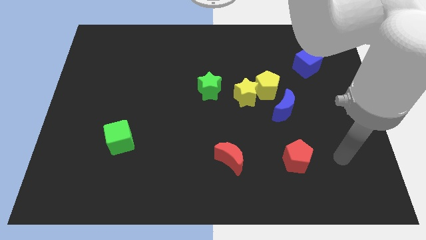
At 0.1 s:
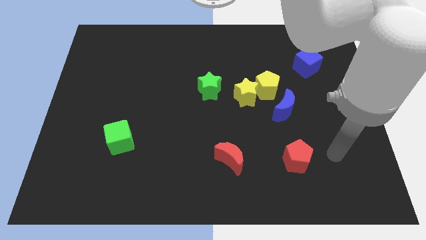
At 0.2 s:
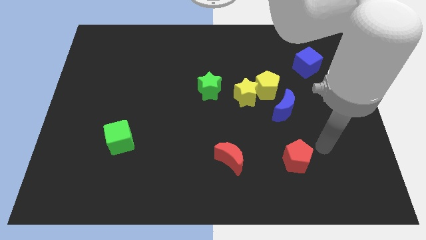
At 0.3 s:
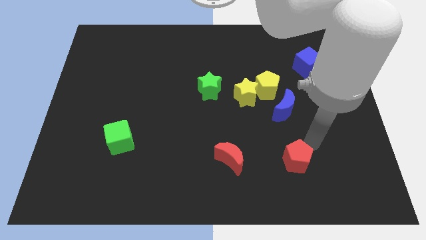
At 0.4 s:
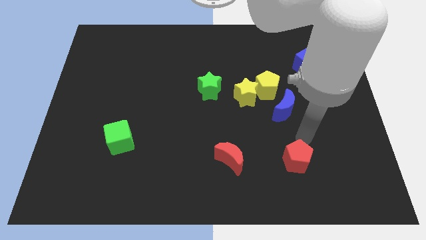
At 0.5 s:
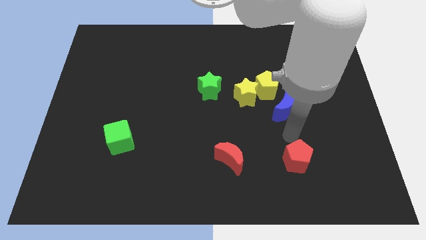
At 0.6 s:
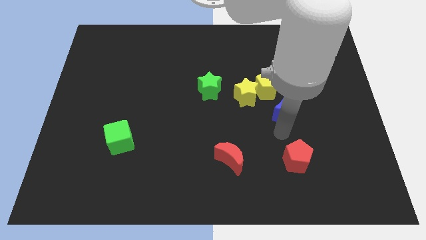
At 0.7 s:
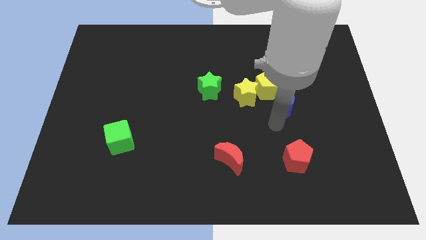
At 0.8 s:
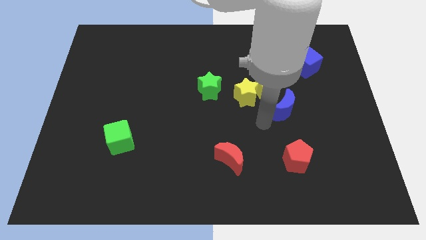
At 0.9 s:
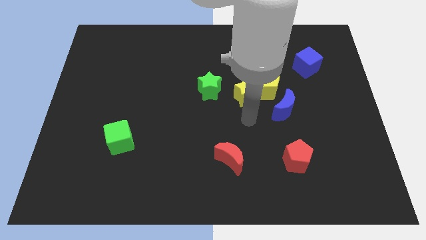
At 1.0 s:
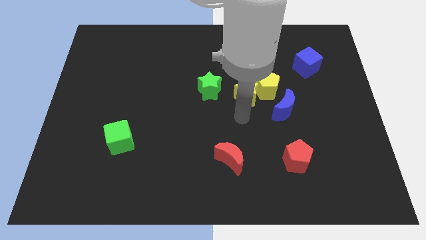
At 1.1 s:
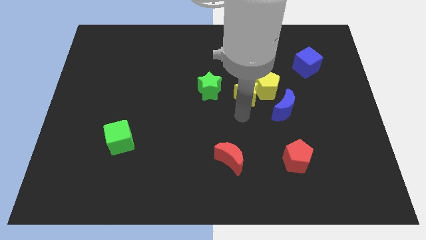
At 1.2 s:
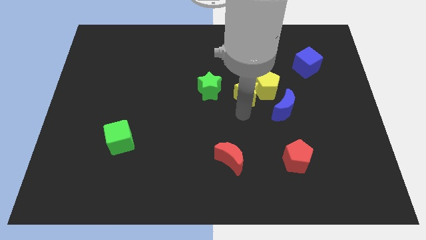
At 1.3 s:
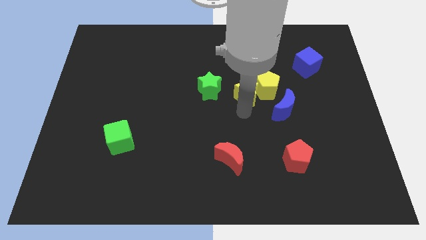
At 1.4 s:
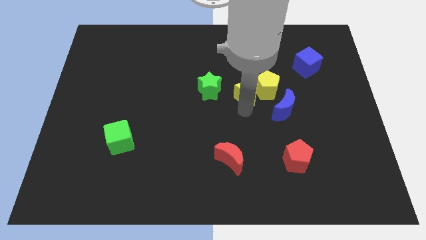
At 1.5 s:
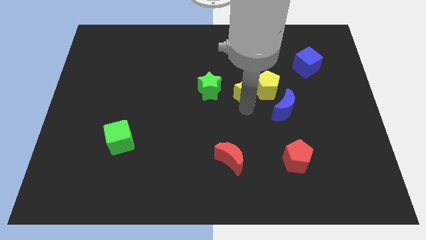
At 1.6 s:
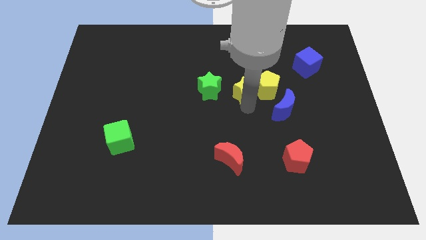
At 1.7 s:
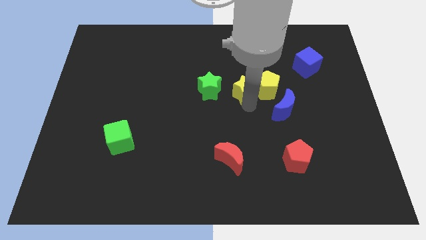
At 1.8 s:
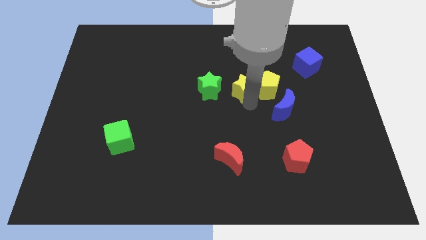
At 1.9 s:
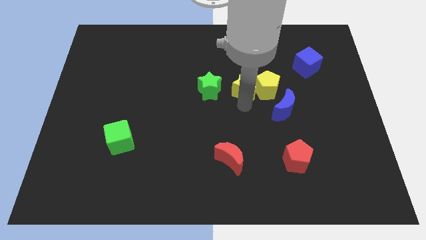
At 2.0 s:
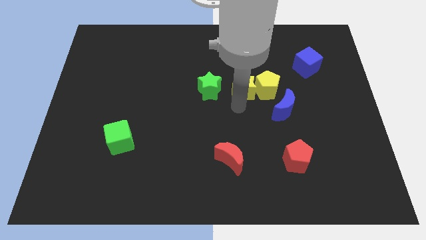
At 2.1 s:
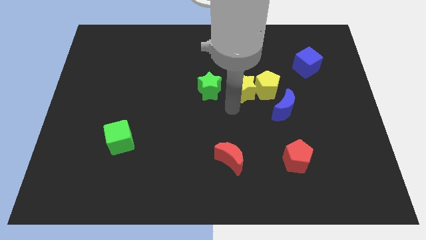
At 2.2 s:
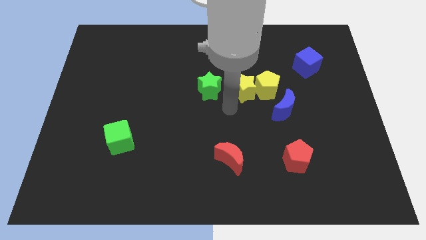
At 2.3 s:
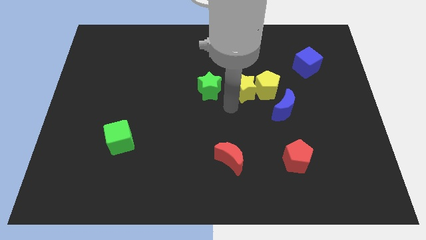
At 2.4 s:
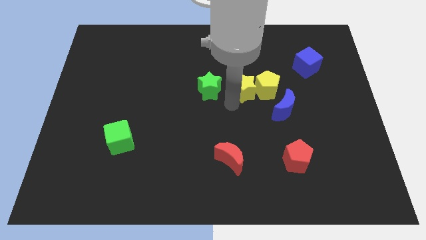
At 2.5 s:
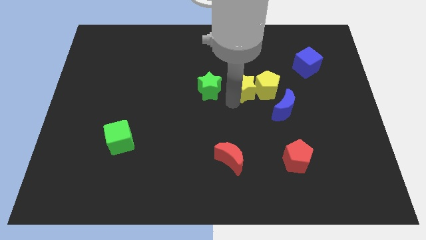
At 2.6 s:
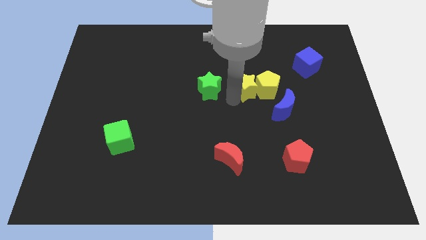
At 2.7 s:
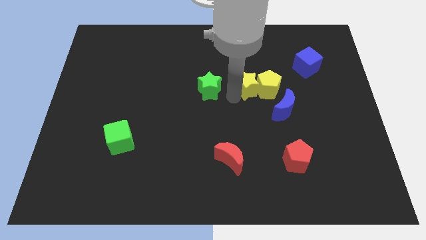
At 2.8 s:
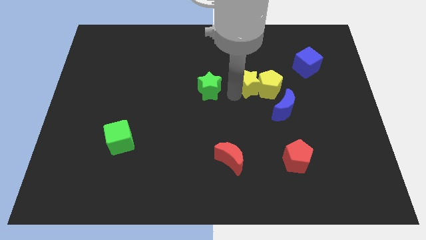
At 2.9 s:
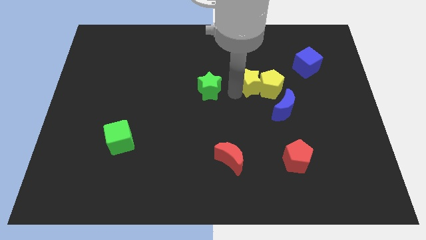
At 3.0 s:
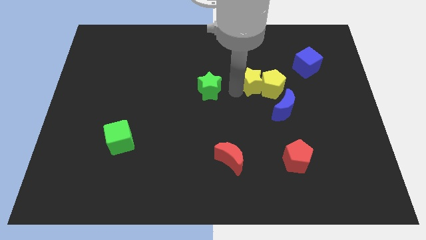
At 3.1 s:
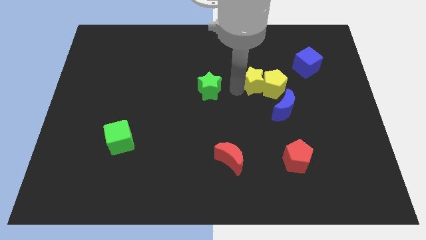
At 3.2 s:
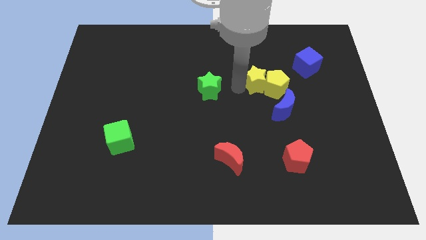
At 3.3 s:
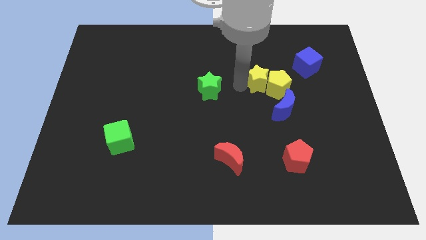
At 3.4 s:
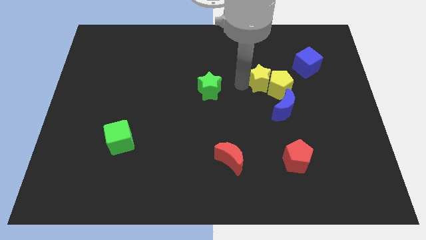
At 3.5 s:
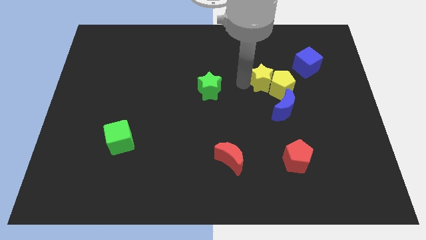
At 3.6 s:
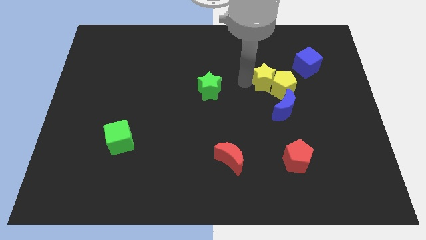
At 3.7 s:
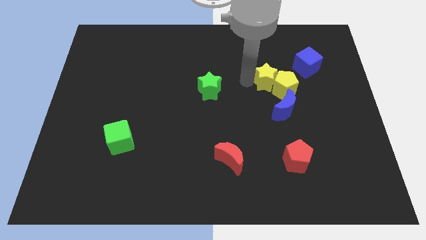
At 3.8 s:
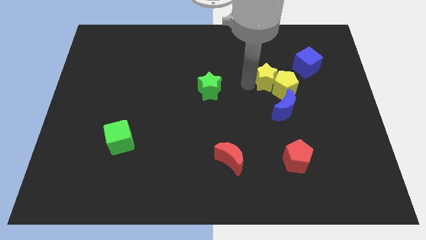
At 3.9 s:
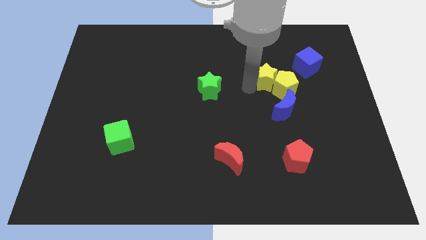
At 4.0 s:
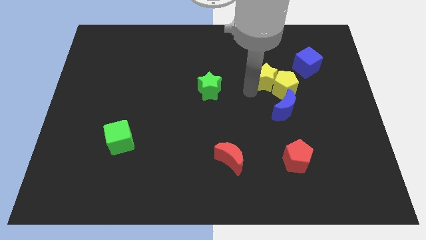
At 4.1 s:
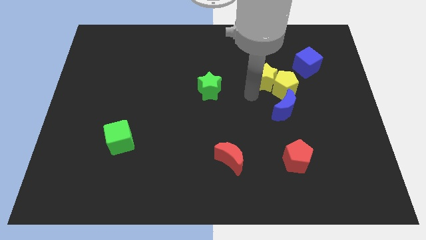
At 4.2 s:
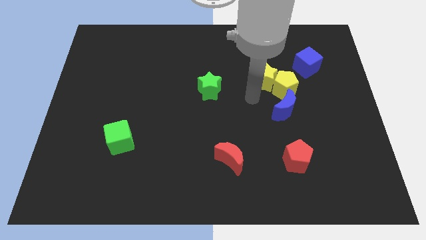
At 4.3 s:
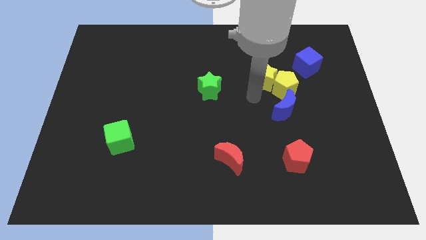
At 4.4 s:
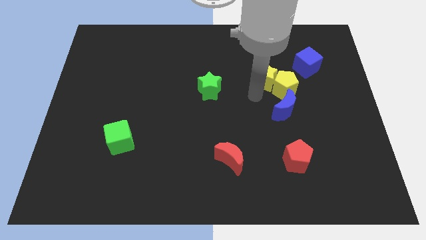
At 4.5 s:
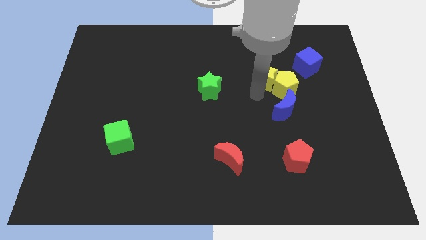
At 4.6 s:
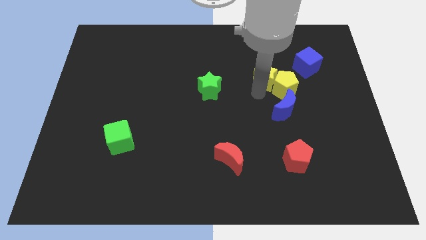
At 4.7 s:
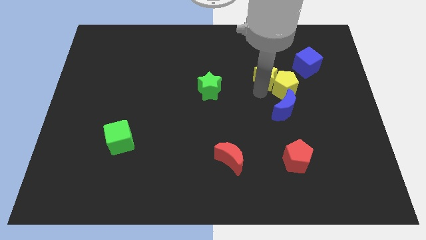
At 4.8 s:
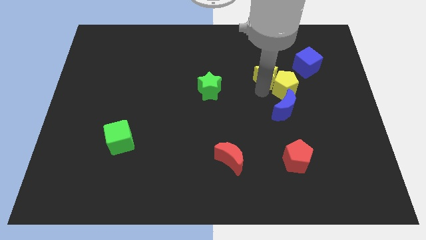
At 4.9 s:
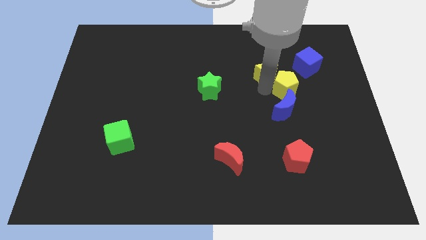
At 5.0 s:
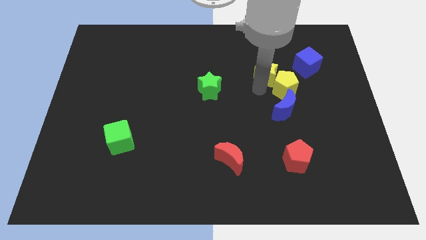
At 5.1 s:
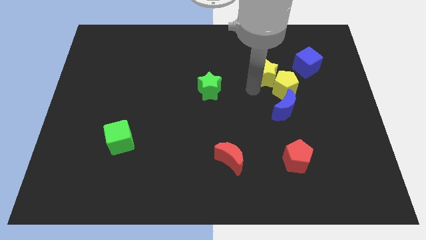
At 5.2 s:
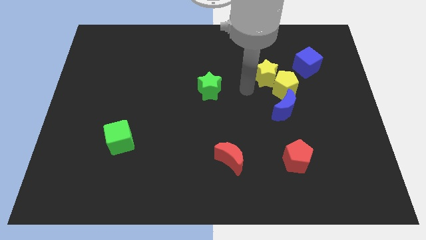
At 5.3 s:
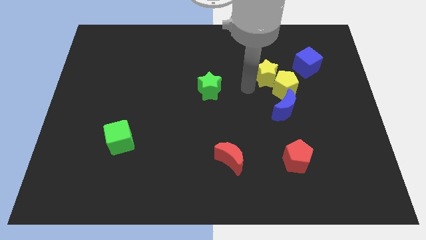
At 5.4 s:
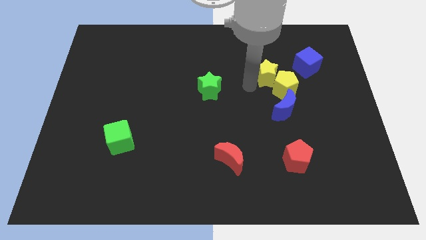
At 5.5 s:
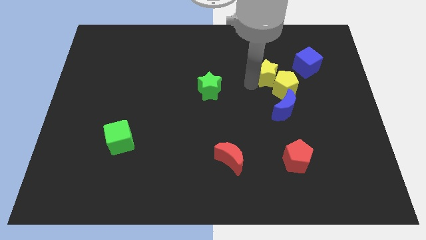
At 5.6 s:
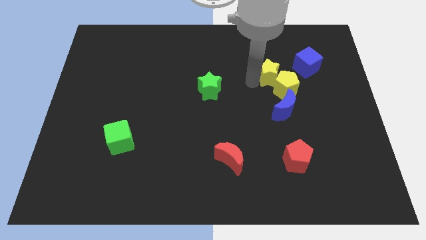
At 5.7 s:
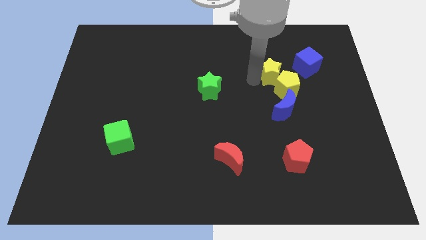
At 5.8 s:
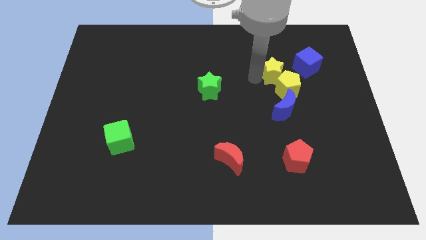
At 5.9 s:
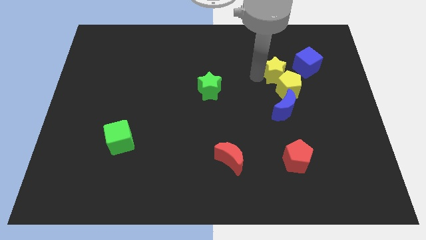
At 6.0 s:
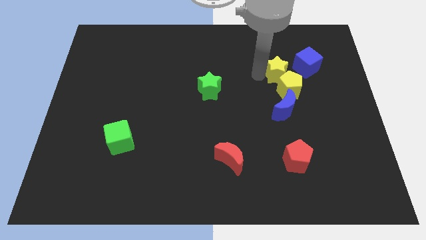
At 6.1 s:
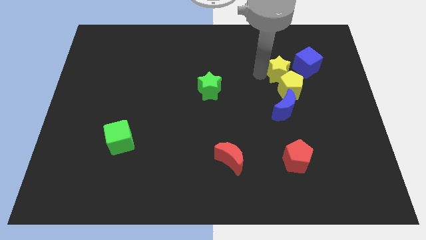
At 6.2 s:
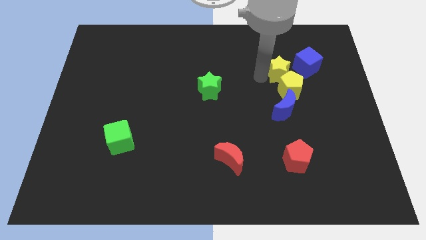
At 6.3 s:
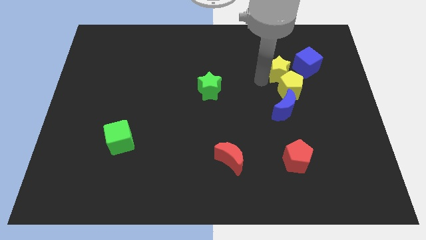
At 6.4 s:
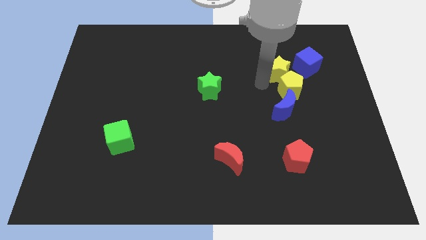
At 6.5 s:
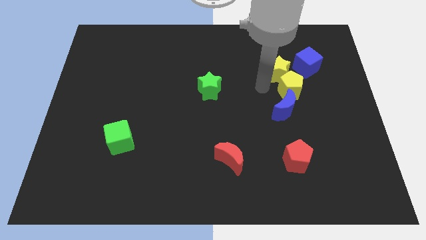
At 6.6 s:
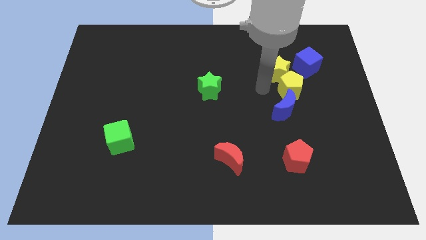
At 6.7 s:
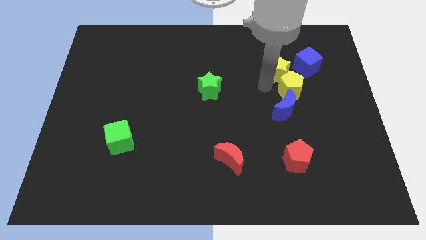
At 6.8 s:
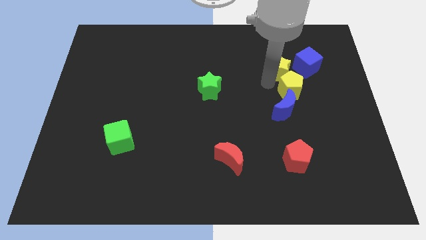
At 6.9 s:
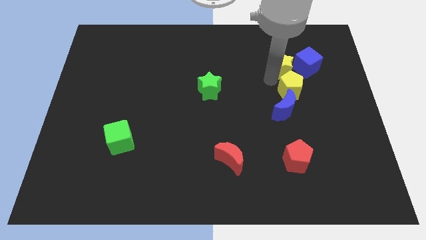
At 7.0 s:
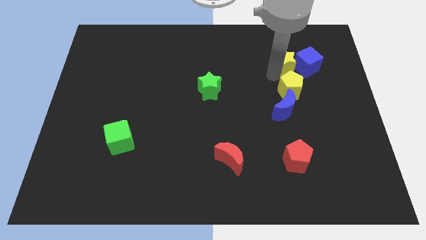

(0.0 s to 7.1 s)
put the yellow star towards the blue cube
